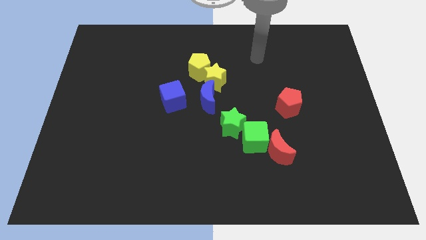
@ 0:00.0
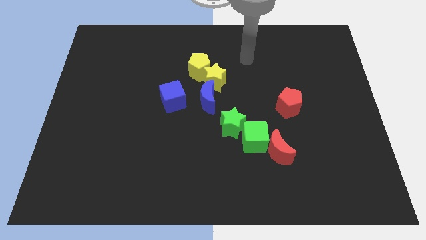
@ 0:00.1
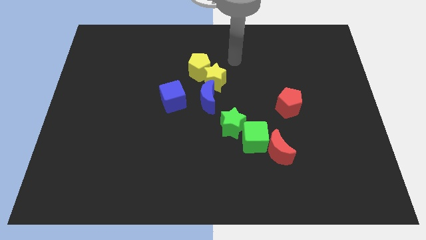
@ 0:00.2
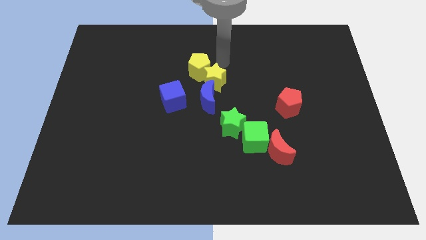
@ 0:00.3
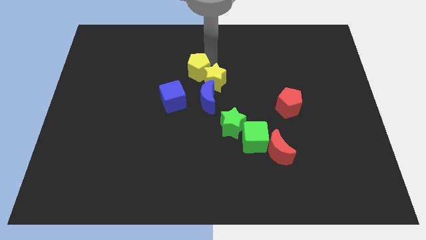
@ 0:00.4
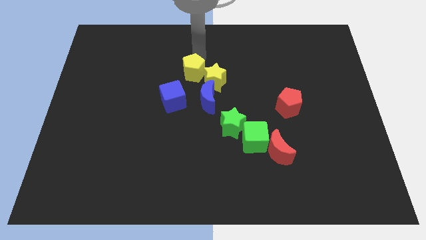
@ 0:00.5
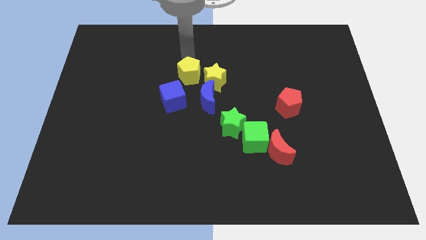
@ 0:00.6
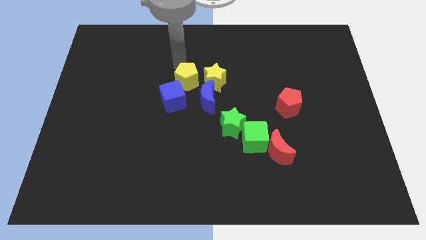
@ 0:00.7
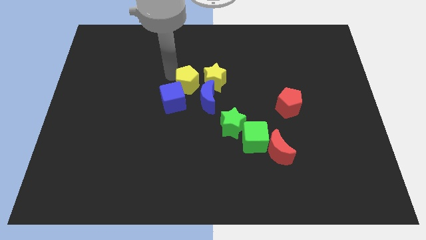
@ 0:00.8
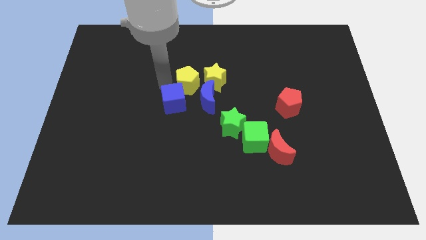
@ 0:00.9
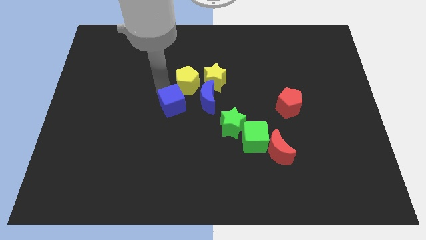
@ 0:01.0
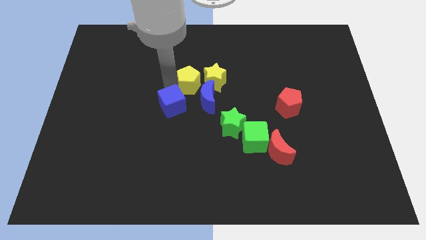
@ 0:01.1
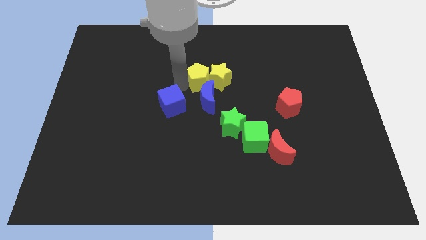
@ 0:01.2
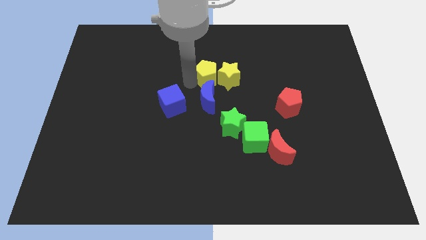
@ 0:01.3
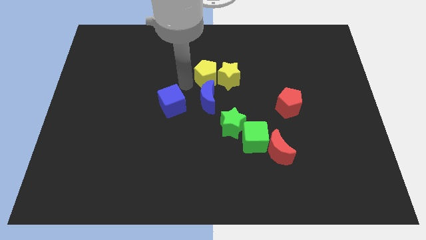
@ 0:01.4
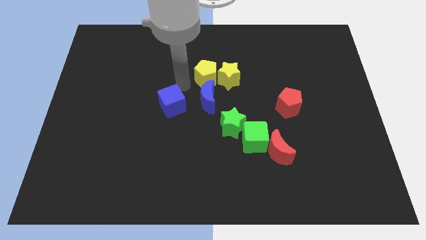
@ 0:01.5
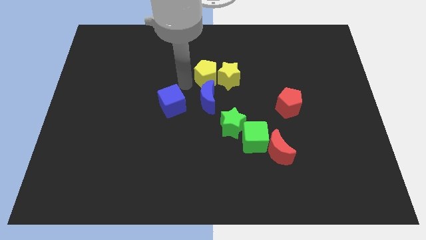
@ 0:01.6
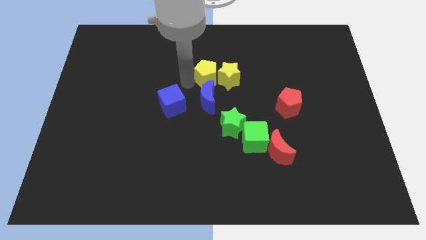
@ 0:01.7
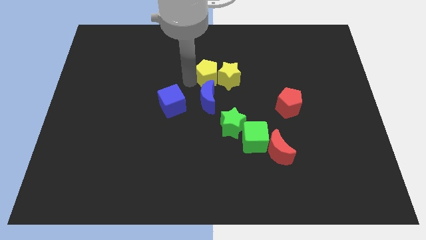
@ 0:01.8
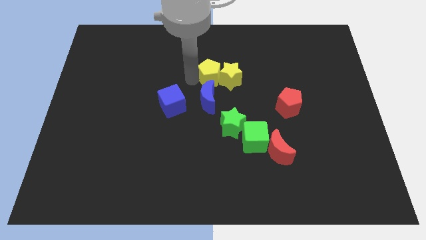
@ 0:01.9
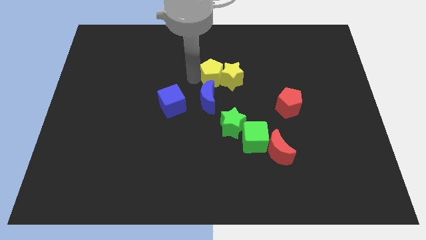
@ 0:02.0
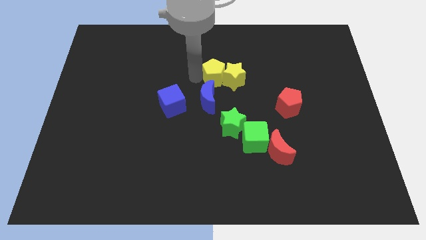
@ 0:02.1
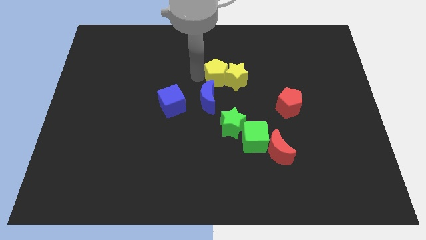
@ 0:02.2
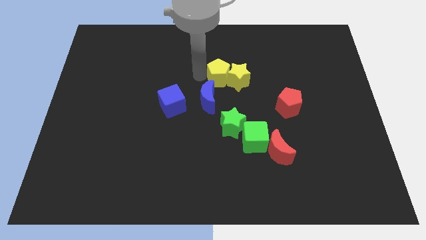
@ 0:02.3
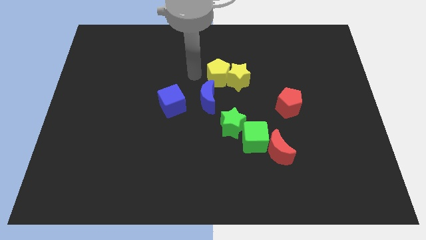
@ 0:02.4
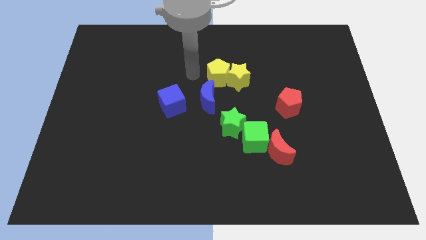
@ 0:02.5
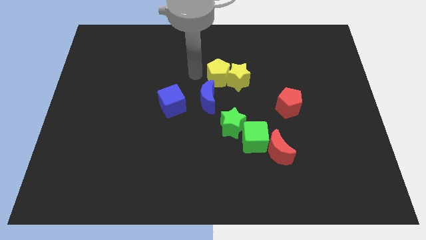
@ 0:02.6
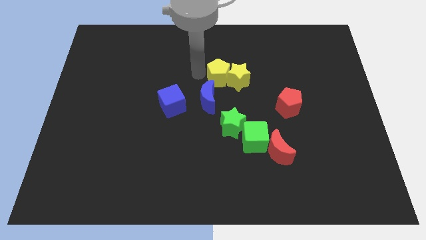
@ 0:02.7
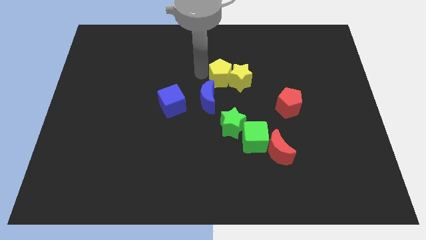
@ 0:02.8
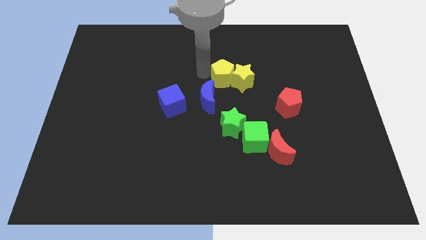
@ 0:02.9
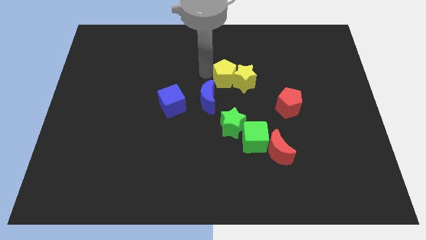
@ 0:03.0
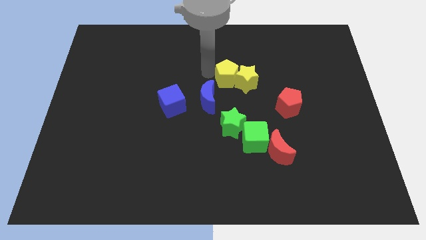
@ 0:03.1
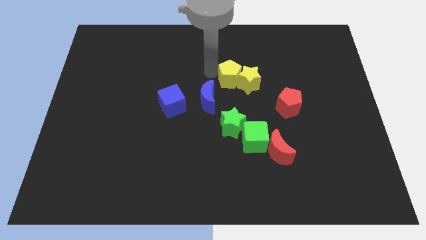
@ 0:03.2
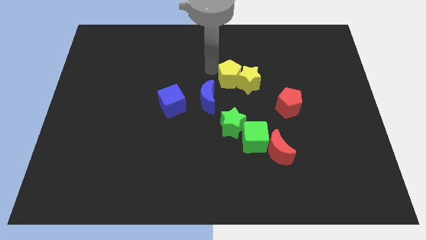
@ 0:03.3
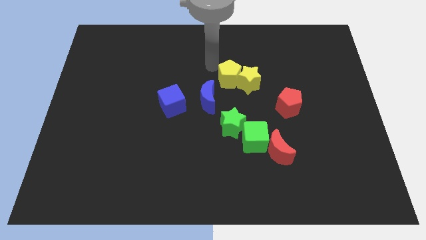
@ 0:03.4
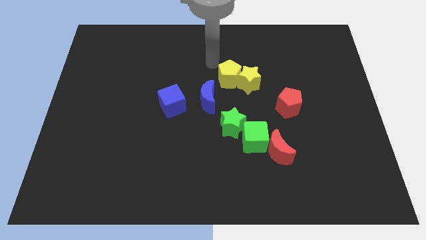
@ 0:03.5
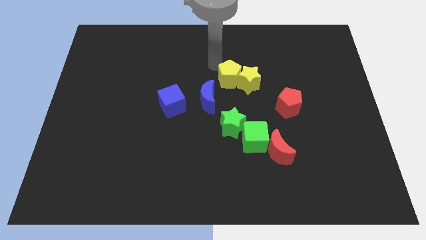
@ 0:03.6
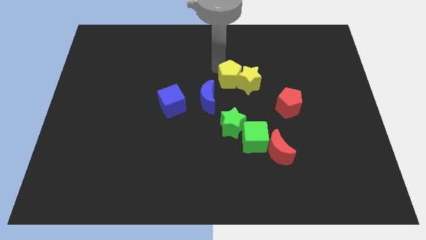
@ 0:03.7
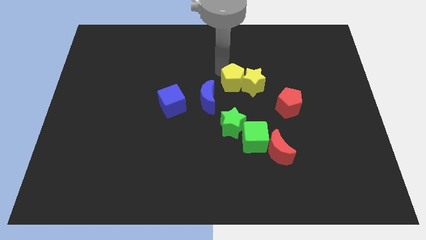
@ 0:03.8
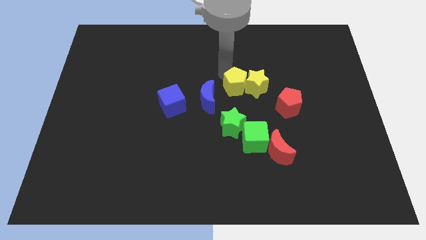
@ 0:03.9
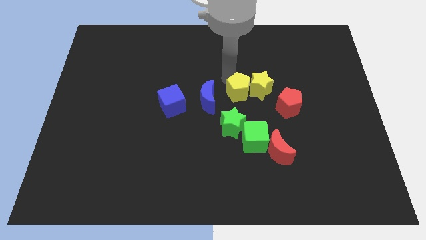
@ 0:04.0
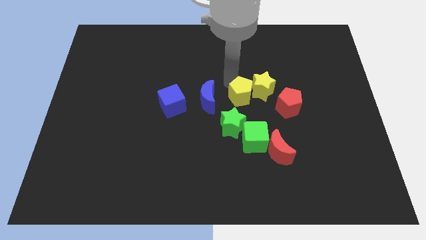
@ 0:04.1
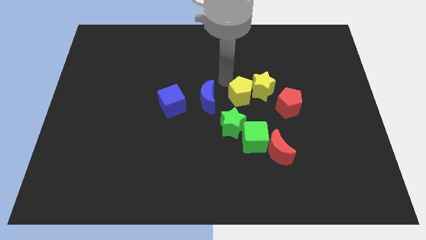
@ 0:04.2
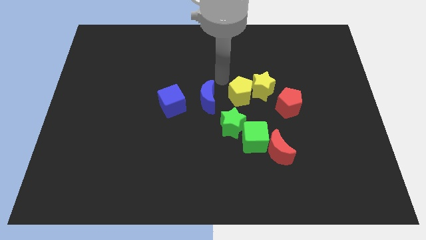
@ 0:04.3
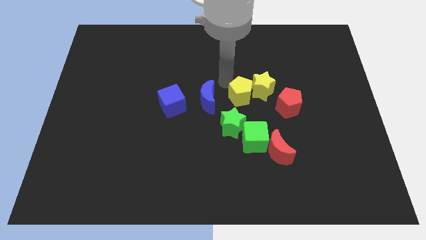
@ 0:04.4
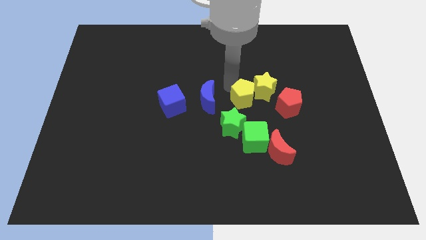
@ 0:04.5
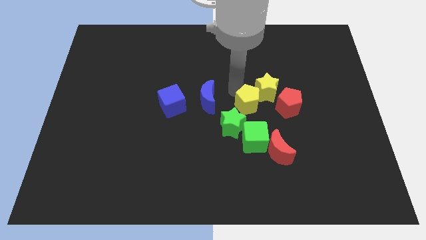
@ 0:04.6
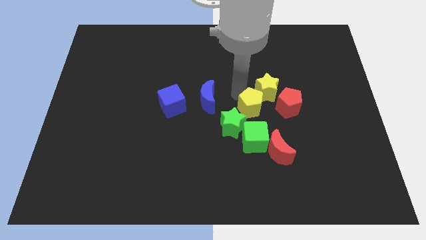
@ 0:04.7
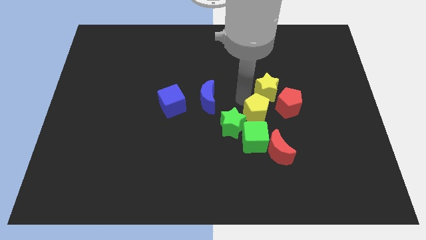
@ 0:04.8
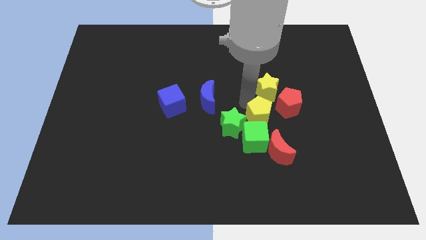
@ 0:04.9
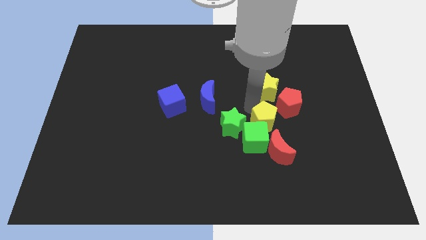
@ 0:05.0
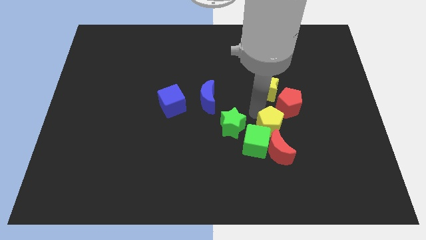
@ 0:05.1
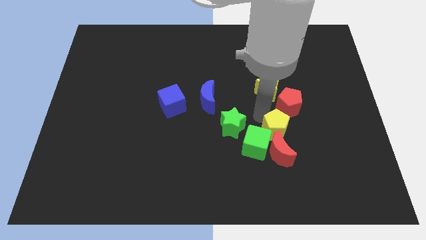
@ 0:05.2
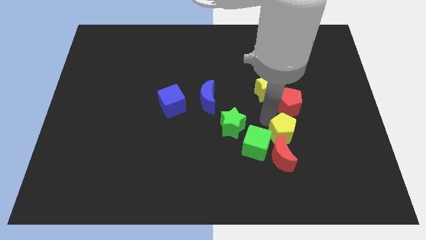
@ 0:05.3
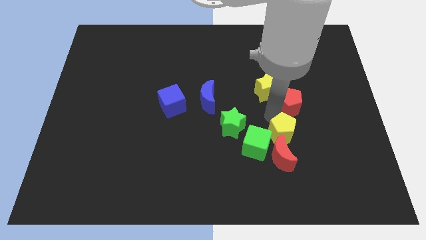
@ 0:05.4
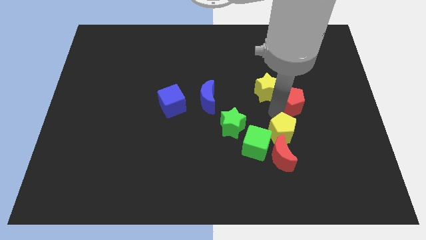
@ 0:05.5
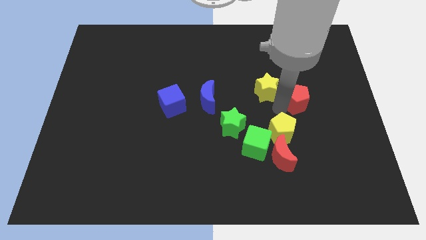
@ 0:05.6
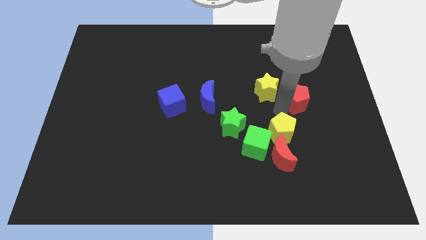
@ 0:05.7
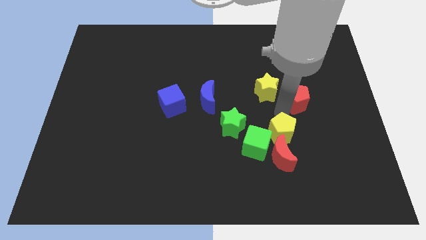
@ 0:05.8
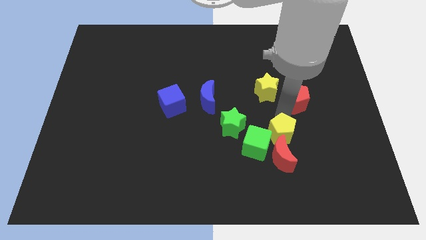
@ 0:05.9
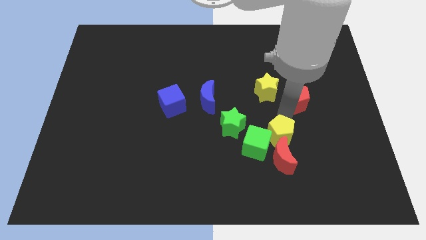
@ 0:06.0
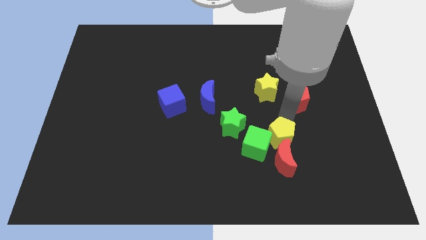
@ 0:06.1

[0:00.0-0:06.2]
push the yellow pentagon towards the red moon
